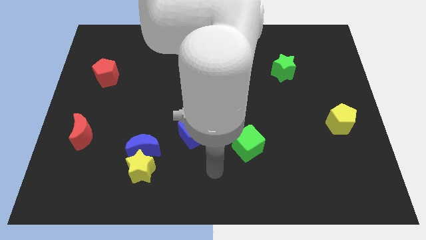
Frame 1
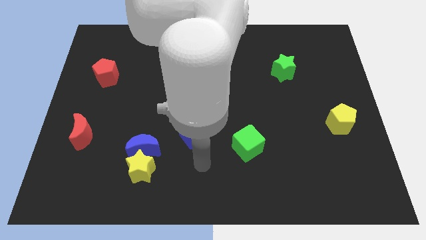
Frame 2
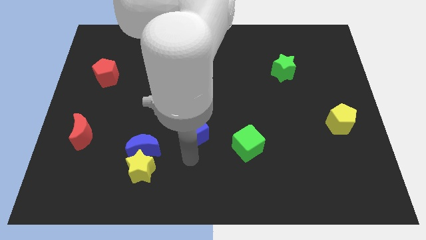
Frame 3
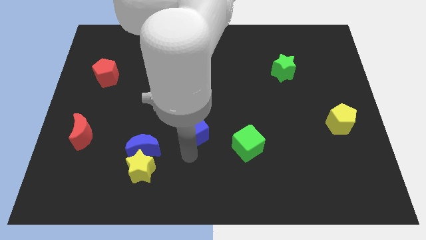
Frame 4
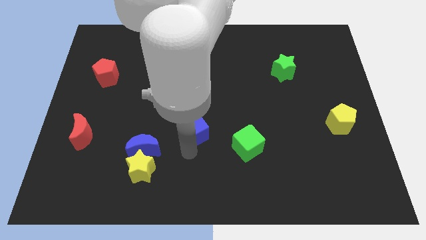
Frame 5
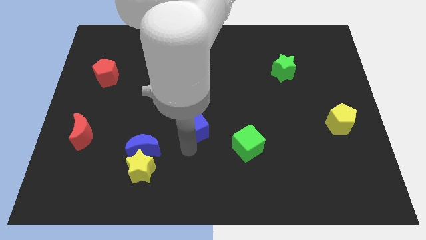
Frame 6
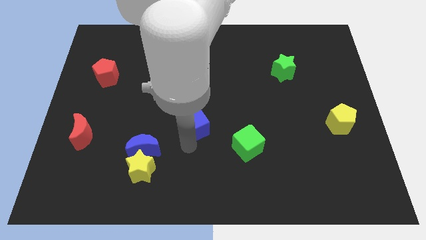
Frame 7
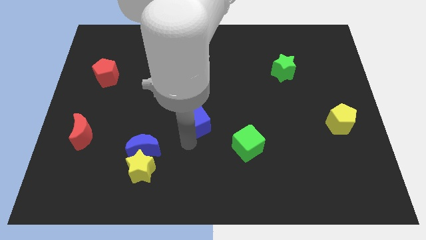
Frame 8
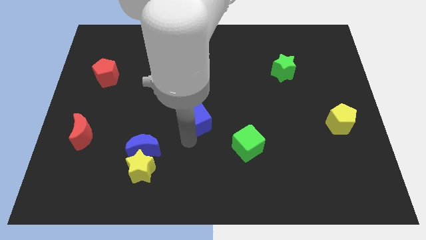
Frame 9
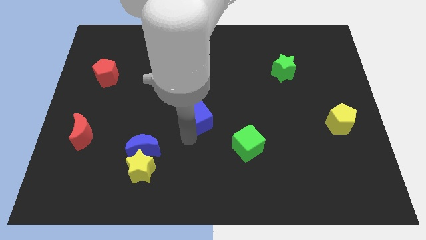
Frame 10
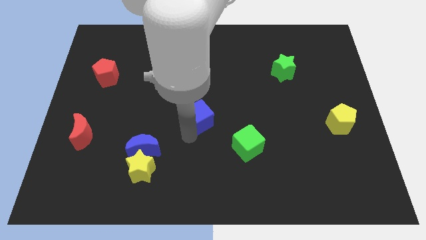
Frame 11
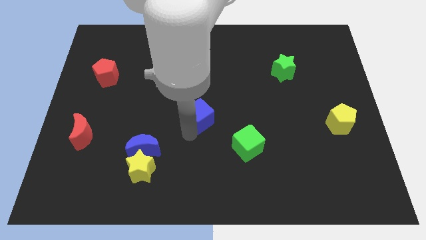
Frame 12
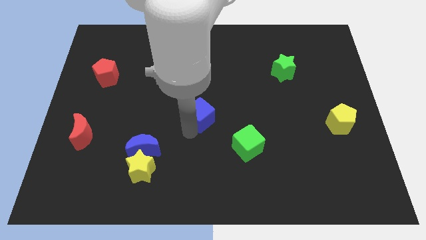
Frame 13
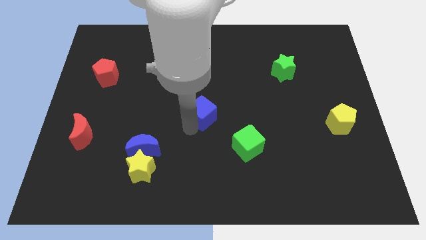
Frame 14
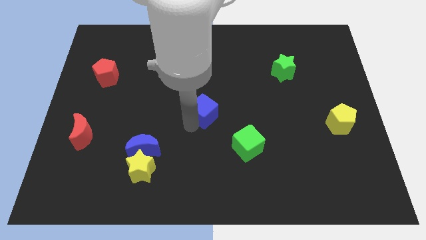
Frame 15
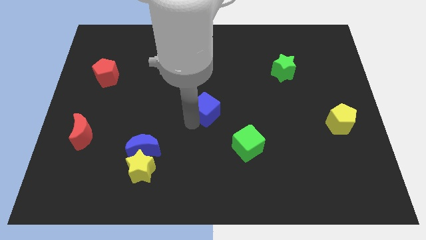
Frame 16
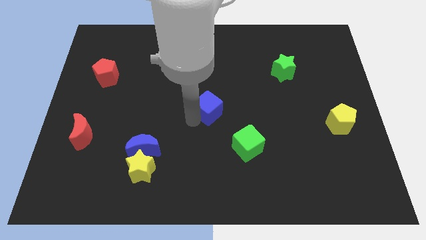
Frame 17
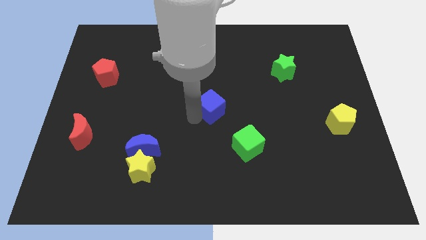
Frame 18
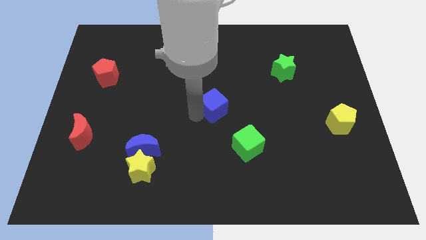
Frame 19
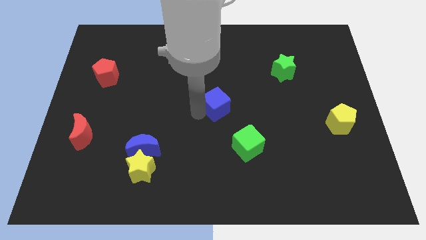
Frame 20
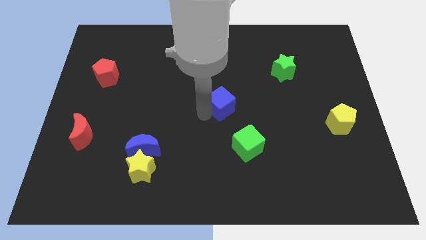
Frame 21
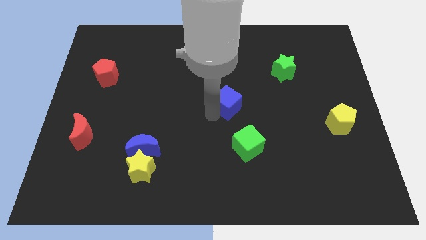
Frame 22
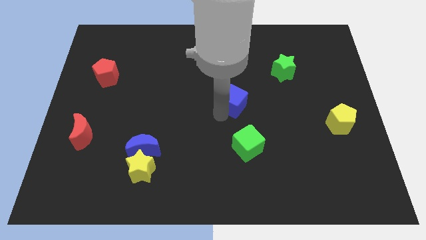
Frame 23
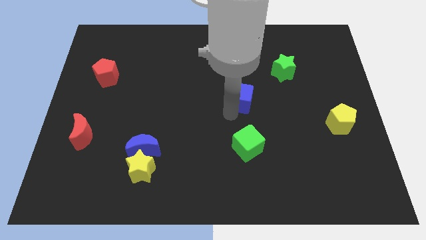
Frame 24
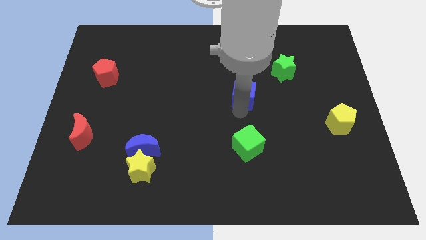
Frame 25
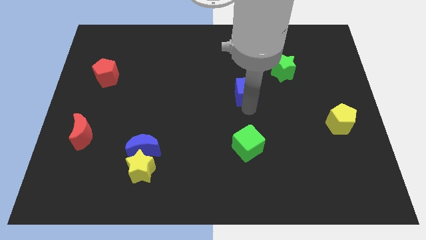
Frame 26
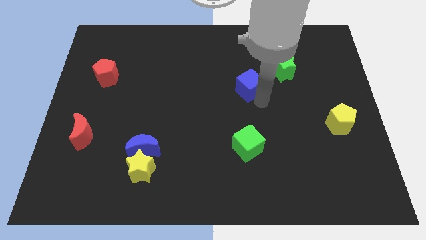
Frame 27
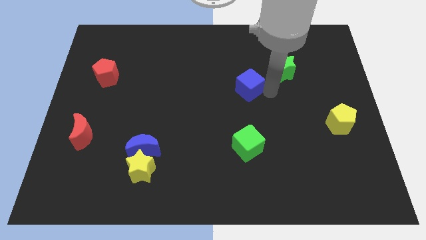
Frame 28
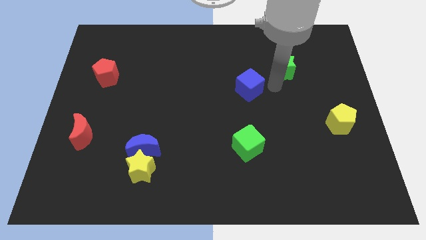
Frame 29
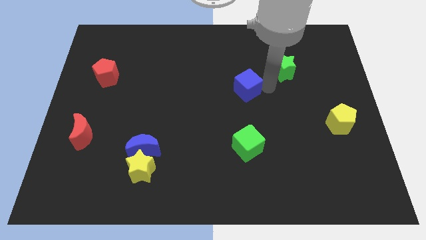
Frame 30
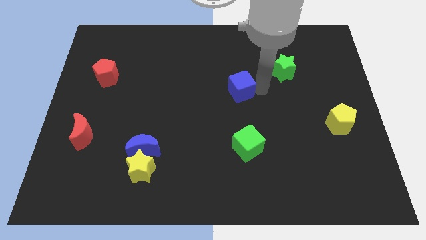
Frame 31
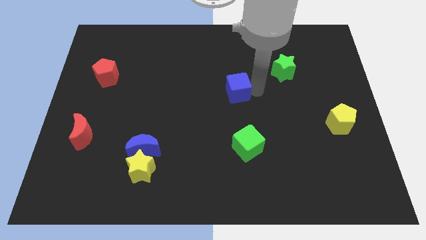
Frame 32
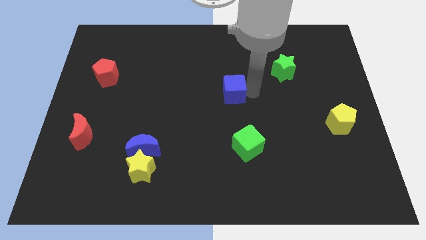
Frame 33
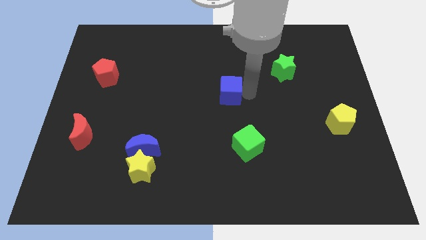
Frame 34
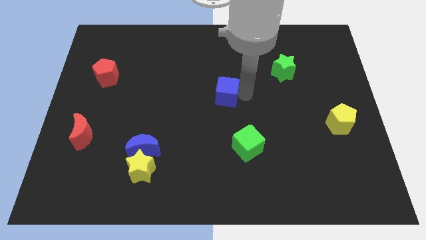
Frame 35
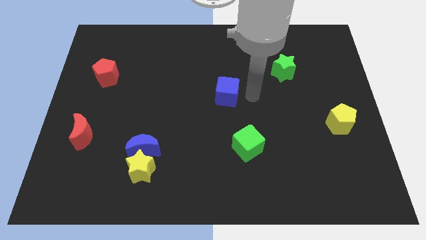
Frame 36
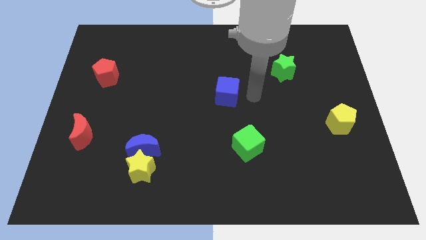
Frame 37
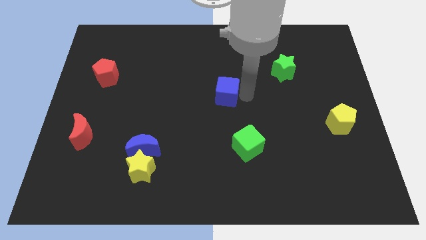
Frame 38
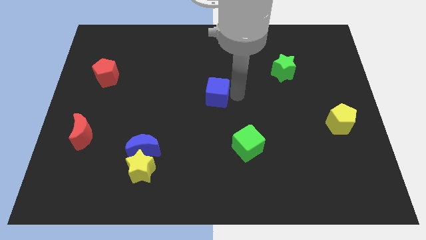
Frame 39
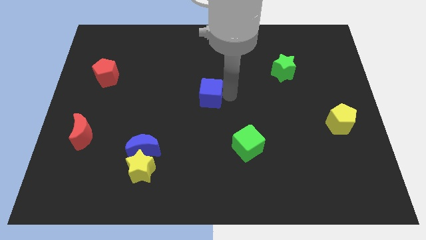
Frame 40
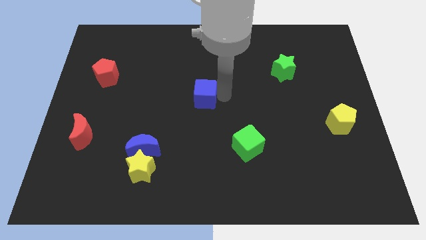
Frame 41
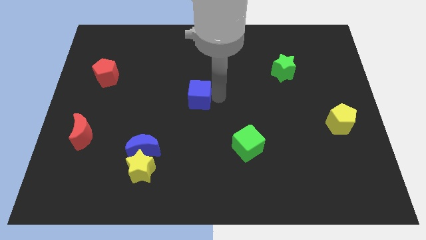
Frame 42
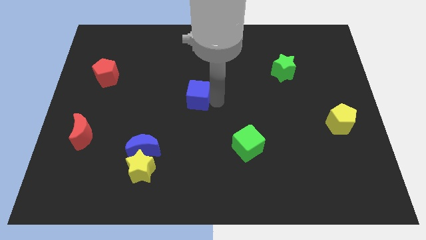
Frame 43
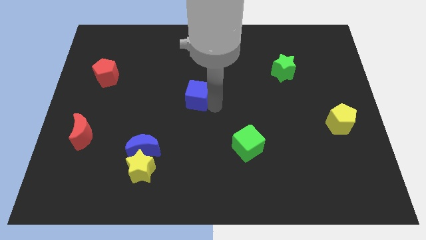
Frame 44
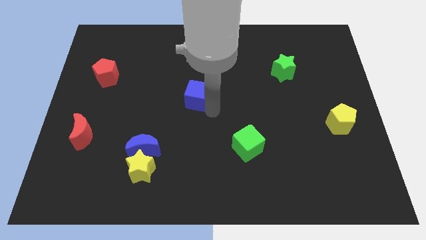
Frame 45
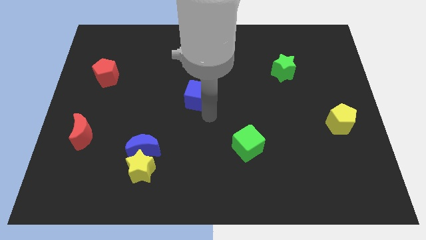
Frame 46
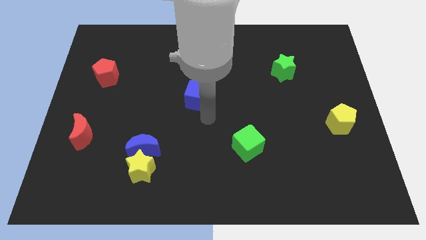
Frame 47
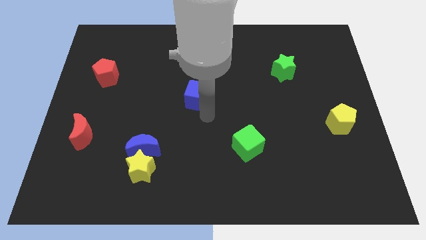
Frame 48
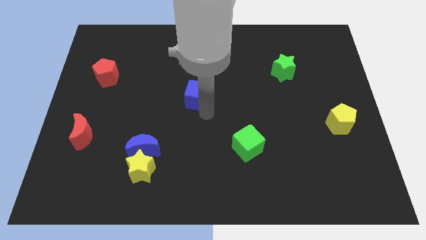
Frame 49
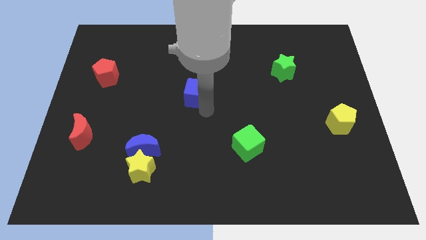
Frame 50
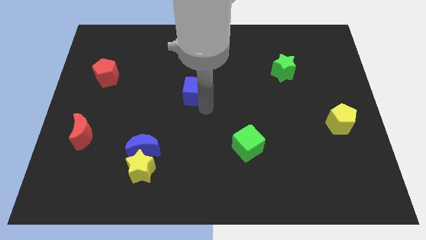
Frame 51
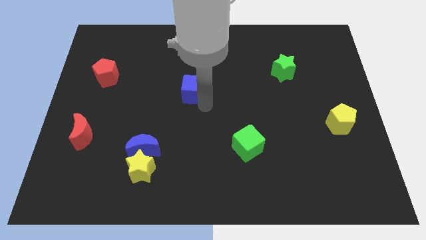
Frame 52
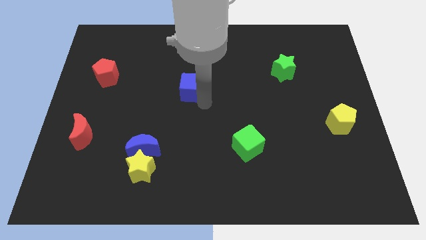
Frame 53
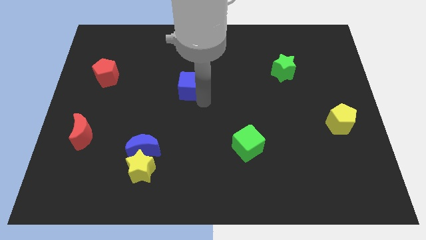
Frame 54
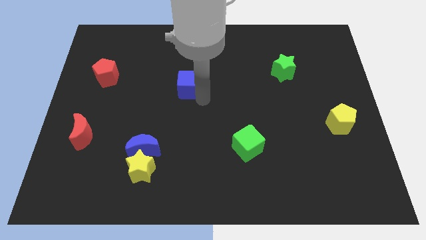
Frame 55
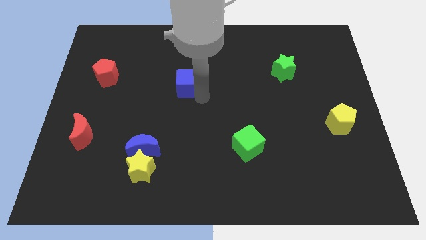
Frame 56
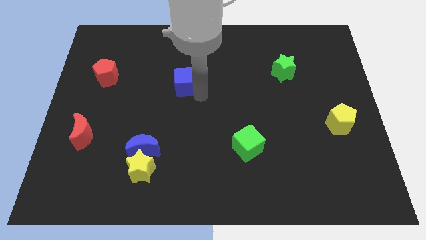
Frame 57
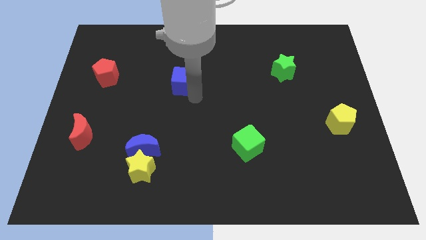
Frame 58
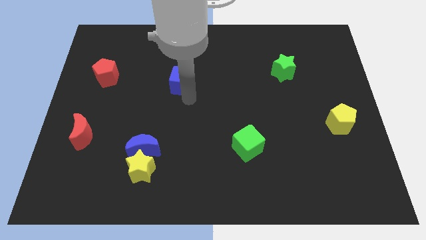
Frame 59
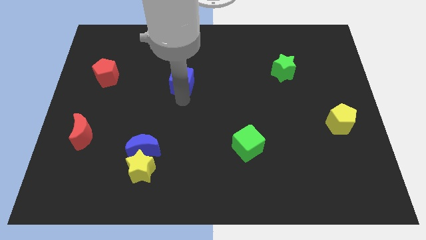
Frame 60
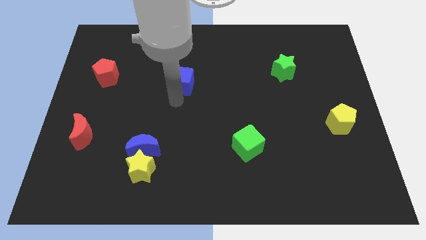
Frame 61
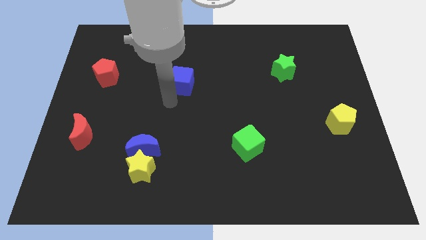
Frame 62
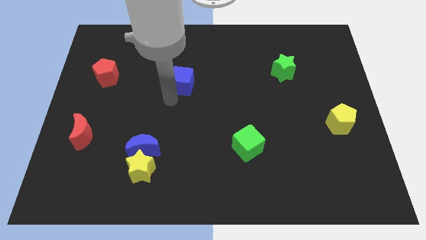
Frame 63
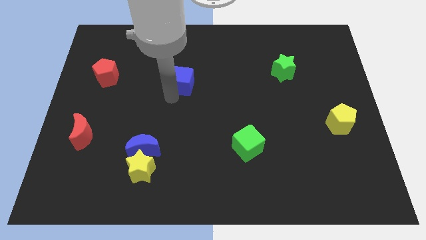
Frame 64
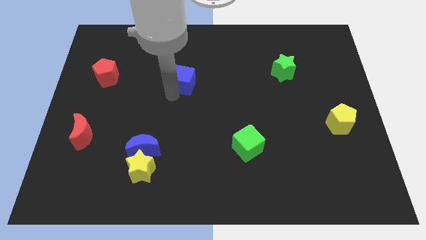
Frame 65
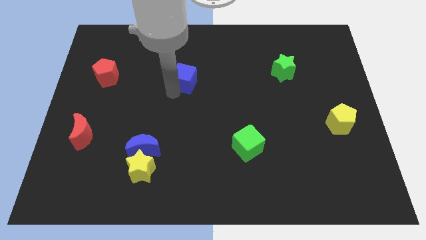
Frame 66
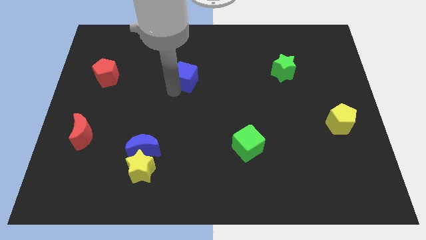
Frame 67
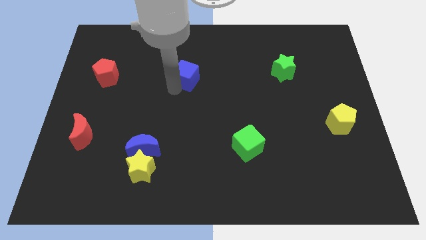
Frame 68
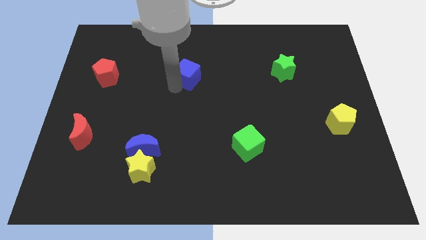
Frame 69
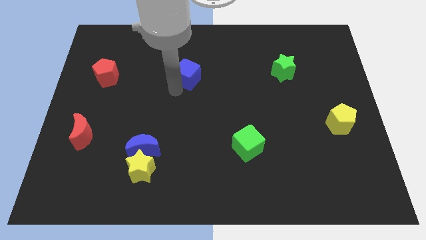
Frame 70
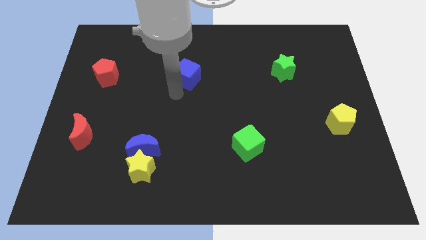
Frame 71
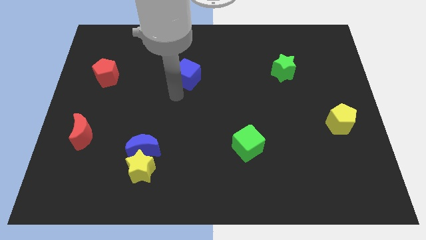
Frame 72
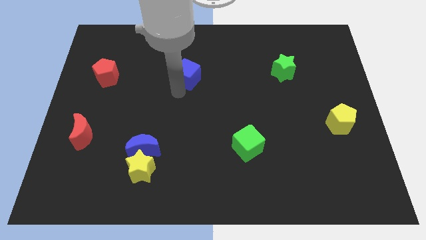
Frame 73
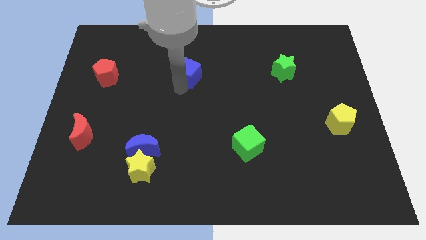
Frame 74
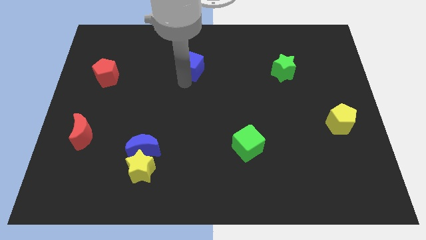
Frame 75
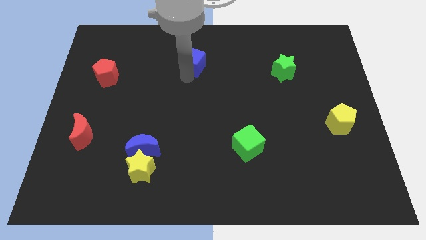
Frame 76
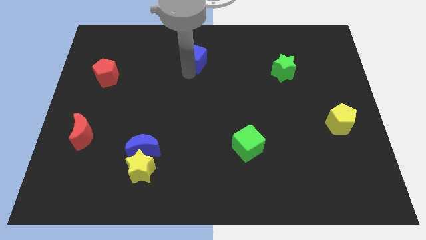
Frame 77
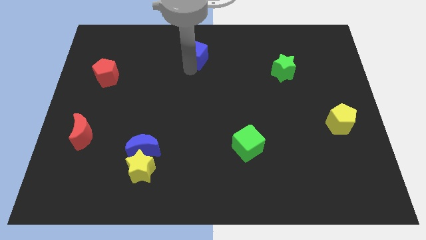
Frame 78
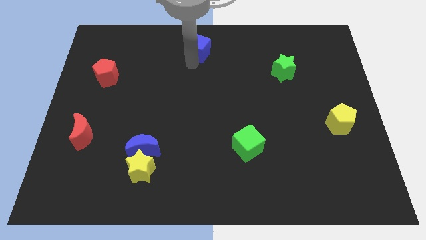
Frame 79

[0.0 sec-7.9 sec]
push the blue cube to the top
